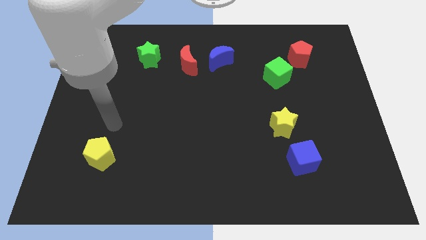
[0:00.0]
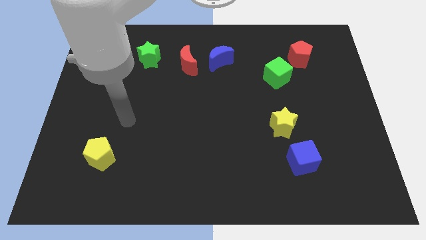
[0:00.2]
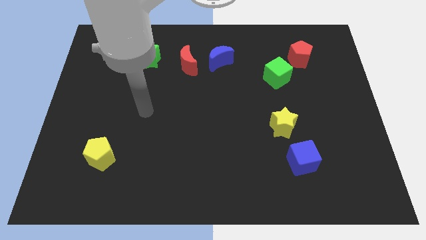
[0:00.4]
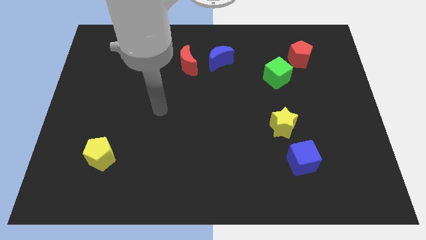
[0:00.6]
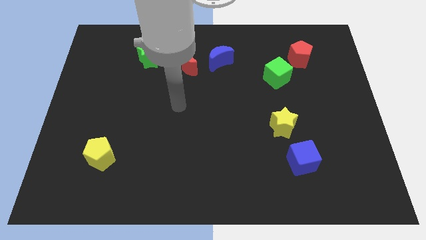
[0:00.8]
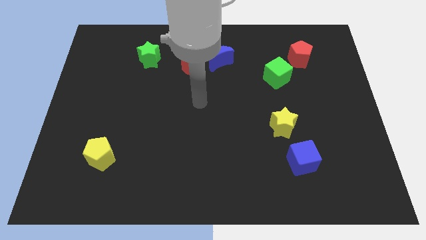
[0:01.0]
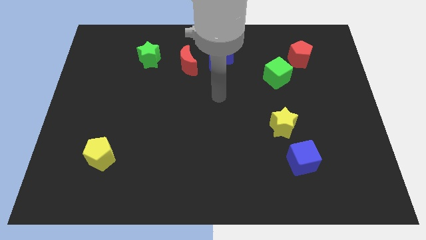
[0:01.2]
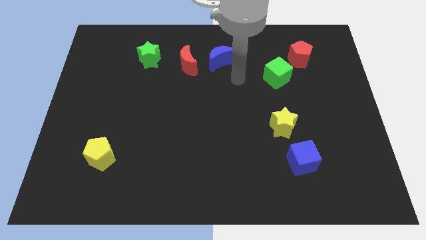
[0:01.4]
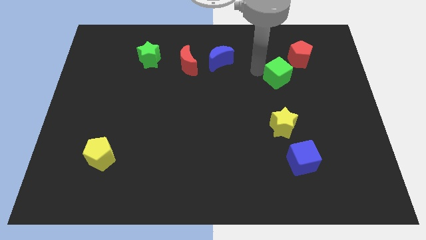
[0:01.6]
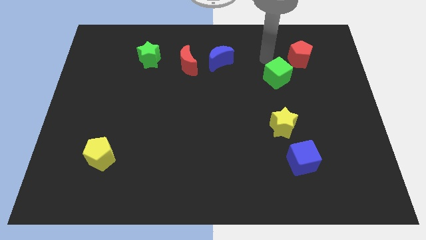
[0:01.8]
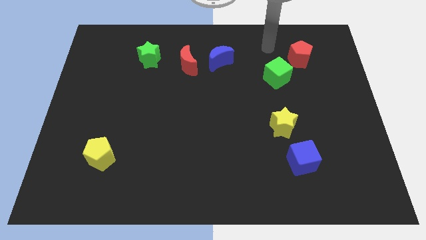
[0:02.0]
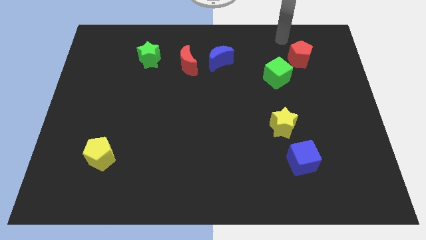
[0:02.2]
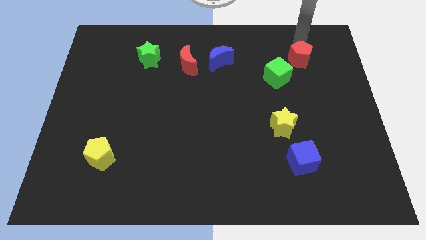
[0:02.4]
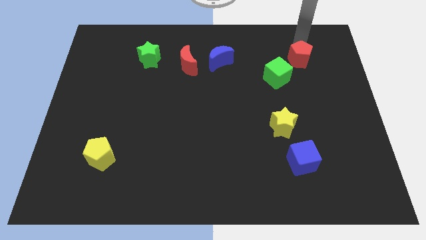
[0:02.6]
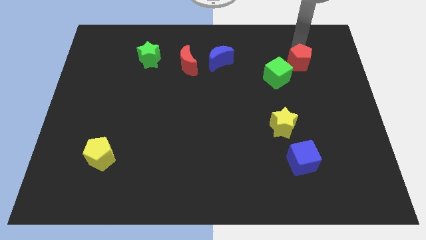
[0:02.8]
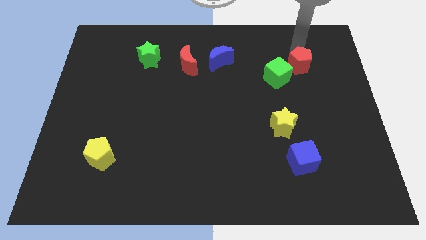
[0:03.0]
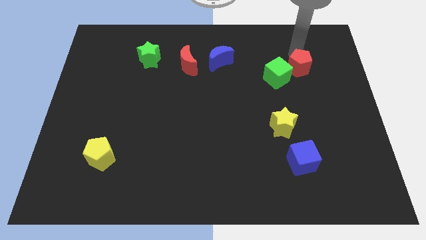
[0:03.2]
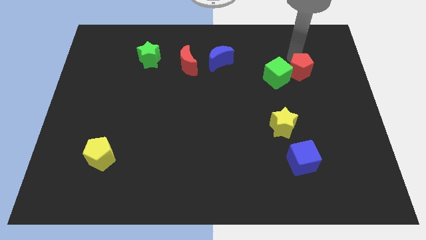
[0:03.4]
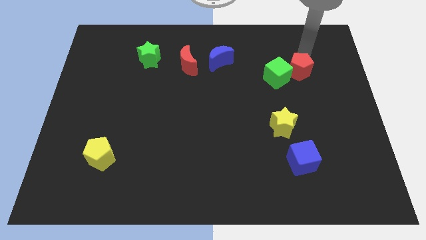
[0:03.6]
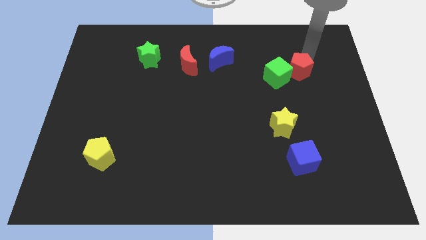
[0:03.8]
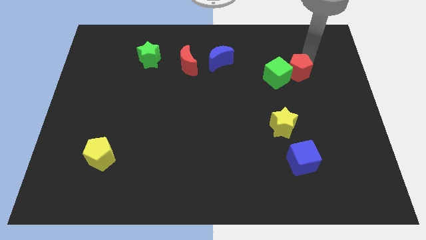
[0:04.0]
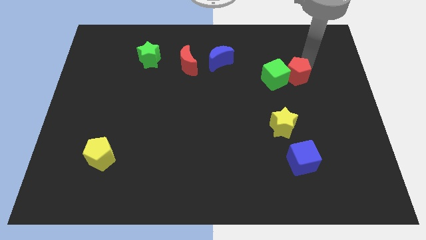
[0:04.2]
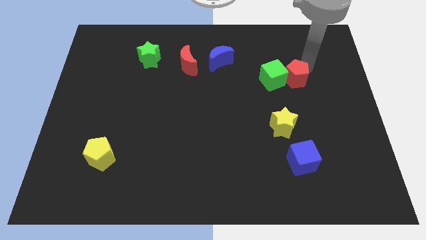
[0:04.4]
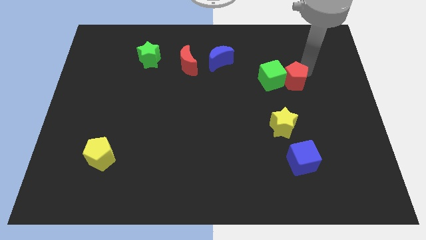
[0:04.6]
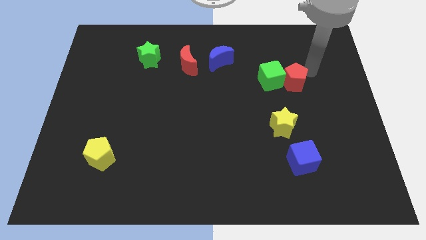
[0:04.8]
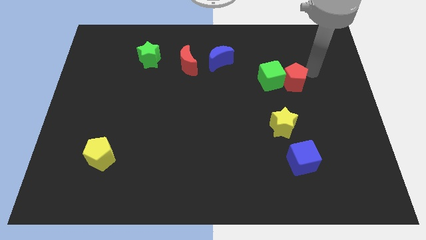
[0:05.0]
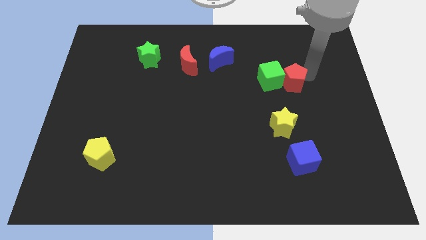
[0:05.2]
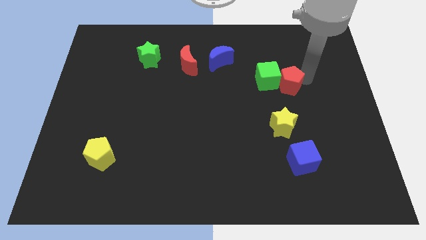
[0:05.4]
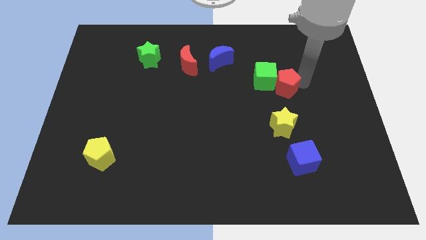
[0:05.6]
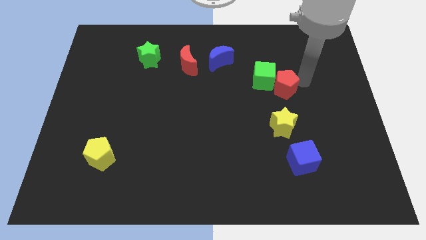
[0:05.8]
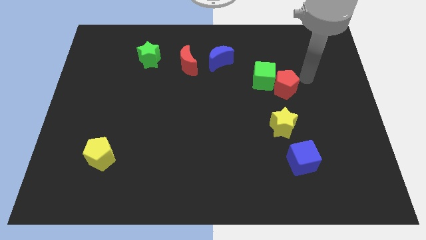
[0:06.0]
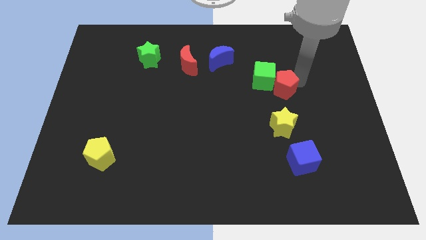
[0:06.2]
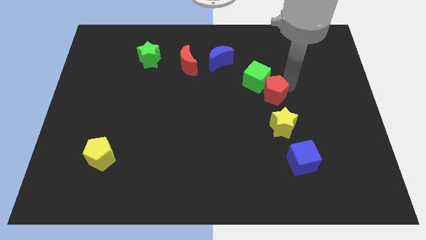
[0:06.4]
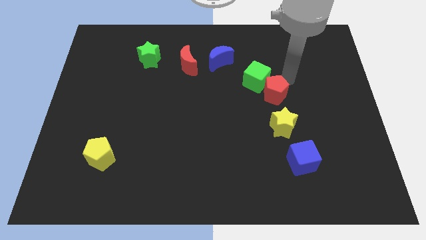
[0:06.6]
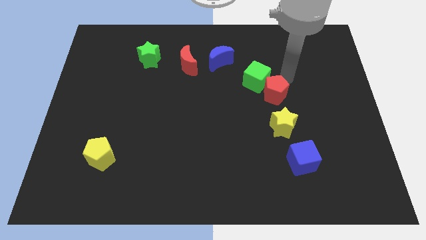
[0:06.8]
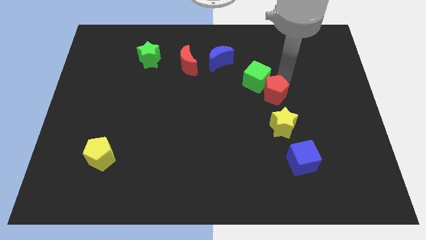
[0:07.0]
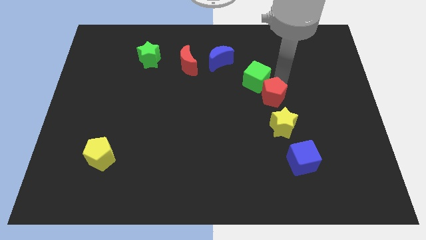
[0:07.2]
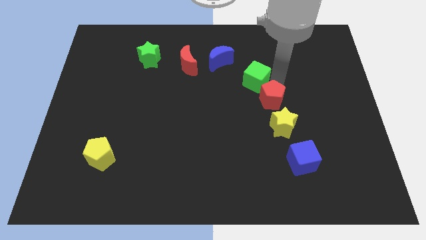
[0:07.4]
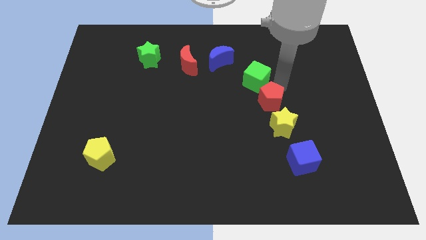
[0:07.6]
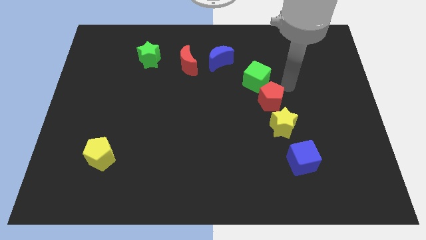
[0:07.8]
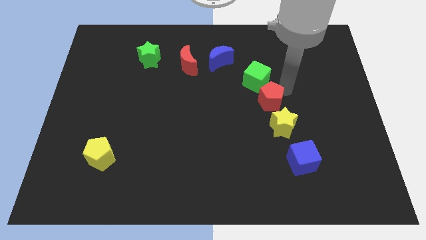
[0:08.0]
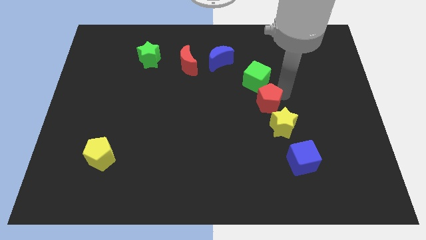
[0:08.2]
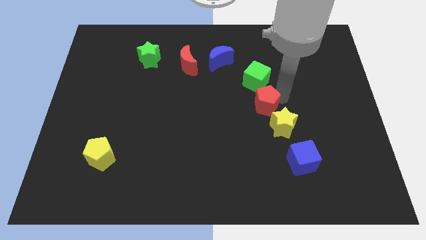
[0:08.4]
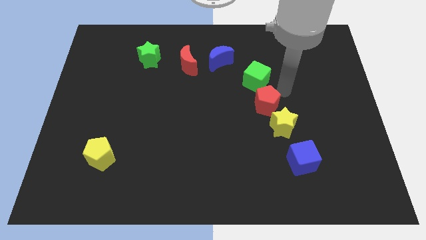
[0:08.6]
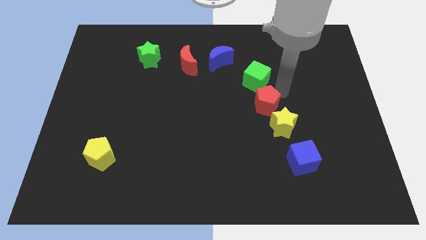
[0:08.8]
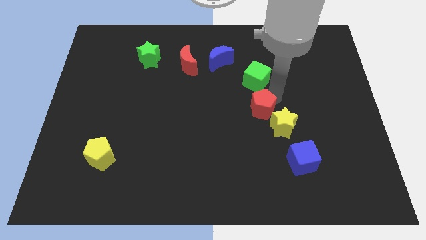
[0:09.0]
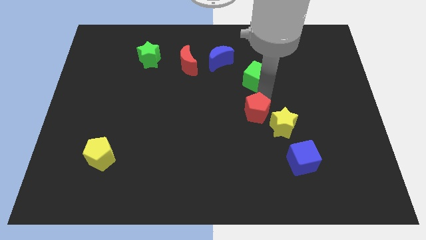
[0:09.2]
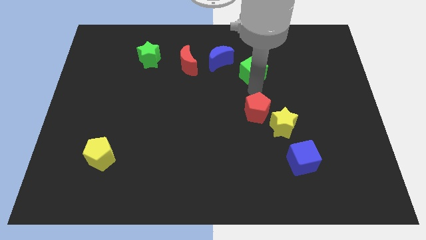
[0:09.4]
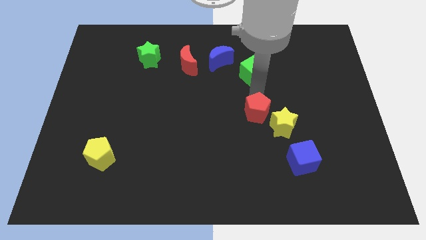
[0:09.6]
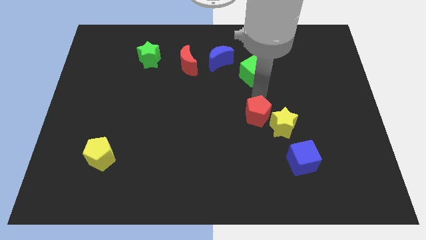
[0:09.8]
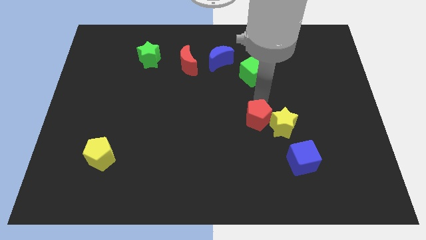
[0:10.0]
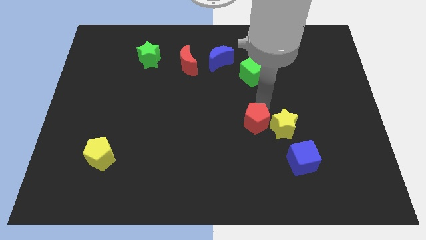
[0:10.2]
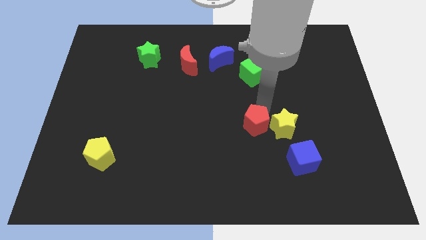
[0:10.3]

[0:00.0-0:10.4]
move the red pentagon diagonally down and to the left of the yellow star

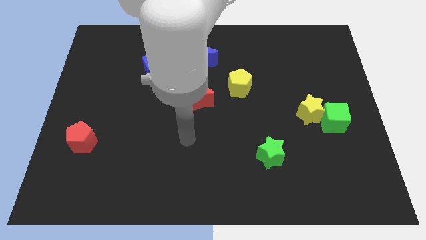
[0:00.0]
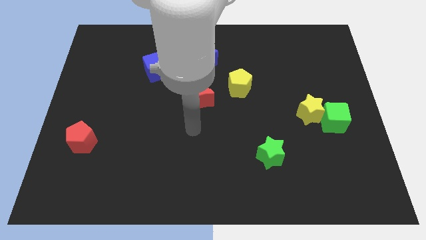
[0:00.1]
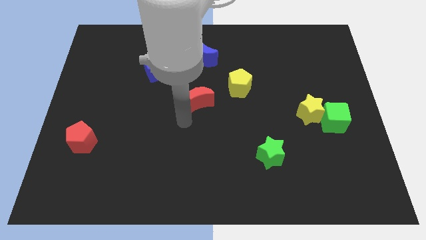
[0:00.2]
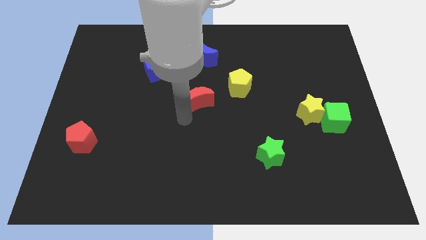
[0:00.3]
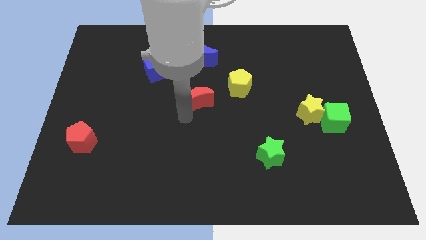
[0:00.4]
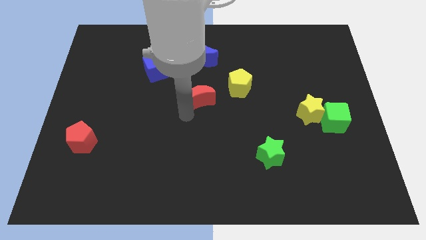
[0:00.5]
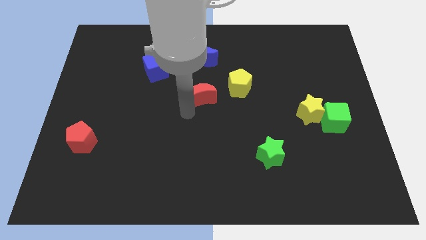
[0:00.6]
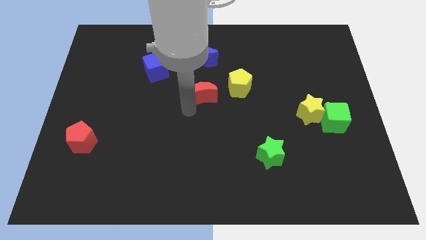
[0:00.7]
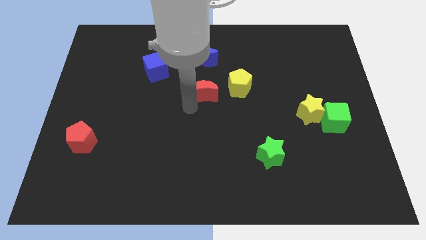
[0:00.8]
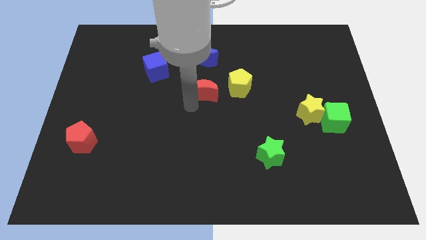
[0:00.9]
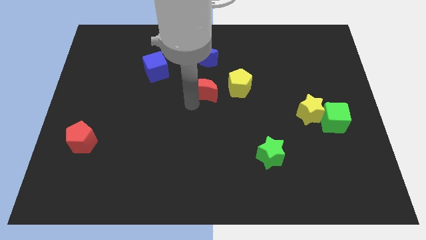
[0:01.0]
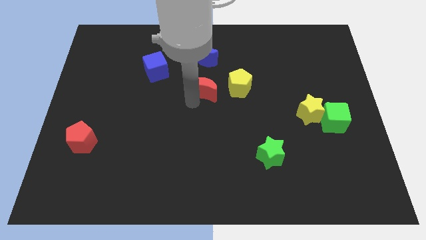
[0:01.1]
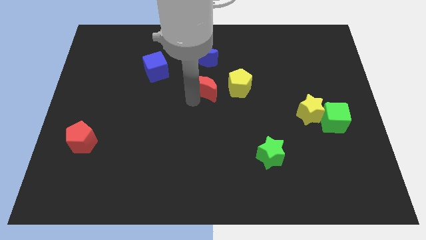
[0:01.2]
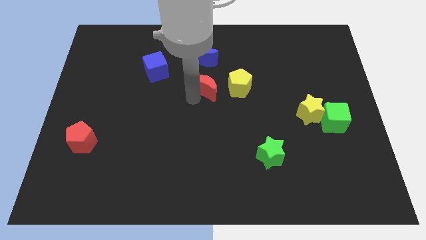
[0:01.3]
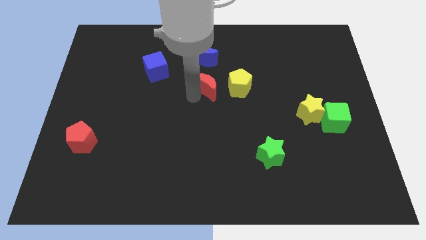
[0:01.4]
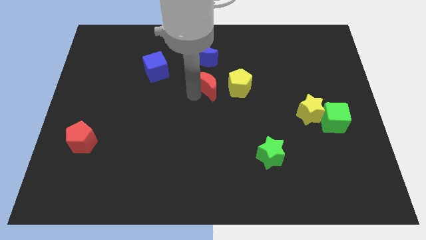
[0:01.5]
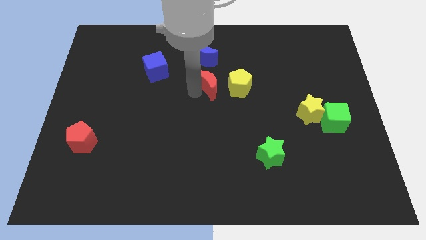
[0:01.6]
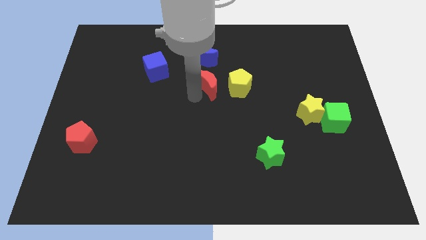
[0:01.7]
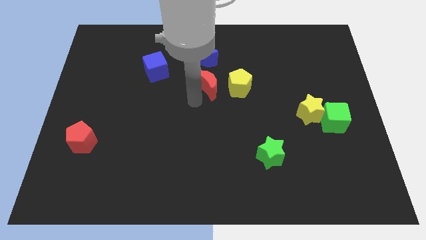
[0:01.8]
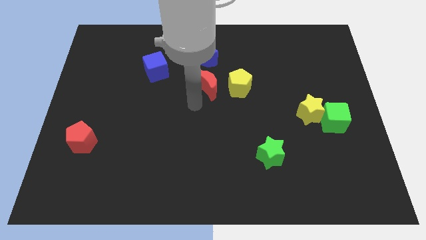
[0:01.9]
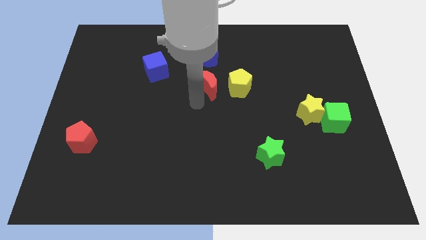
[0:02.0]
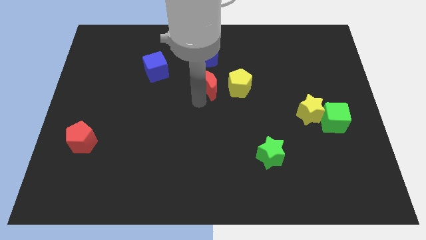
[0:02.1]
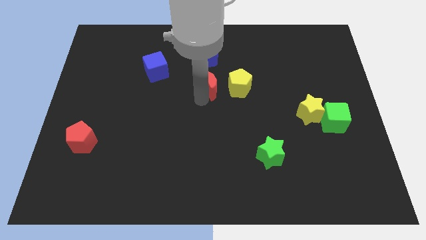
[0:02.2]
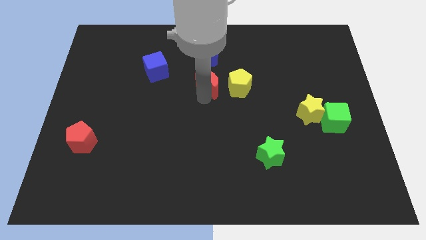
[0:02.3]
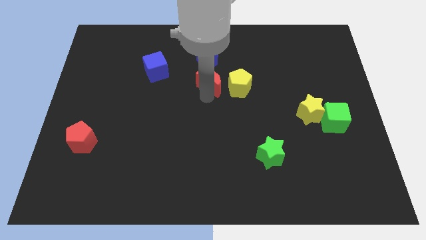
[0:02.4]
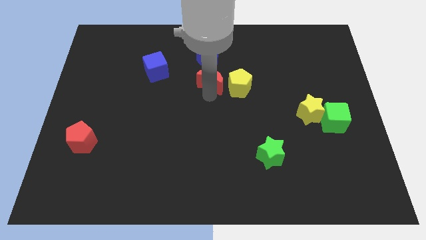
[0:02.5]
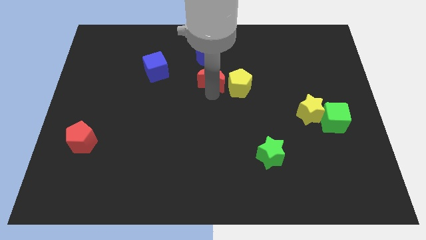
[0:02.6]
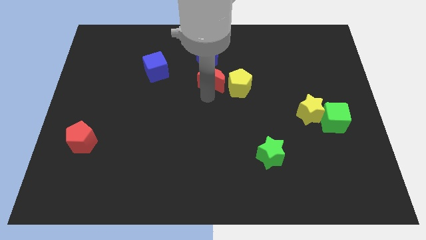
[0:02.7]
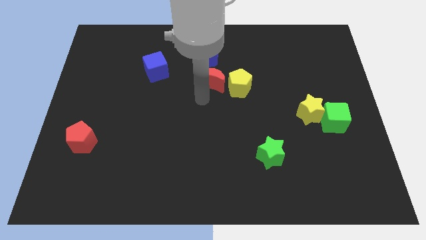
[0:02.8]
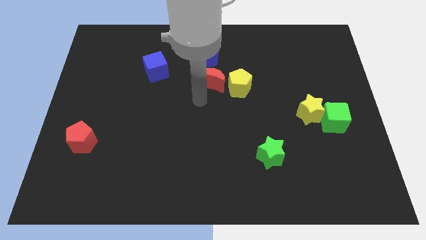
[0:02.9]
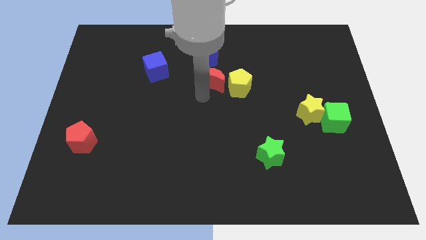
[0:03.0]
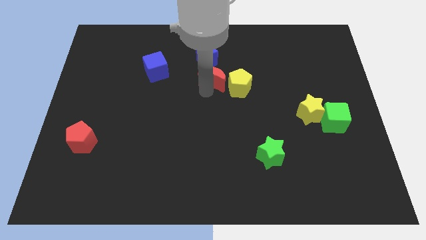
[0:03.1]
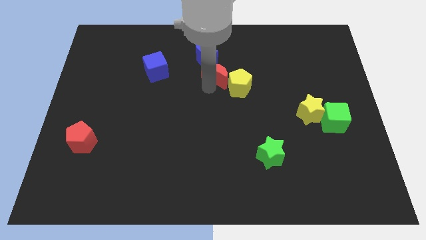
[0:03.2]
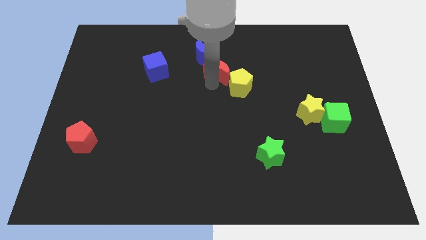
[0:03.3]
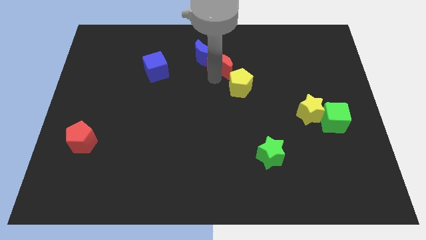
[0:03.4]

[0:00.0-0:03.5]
put the red moon to the top side of the yellow pentagon
